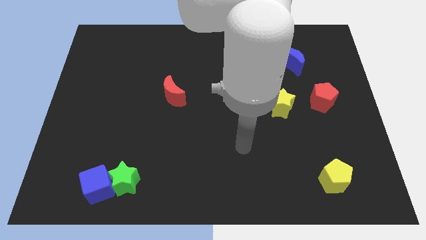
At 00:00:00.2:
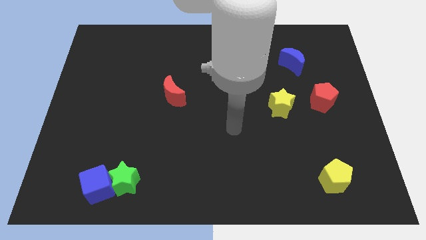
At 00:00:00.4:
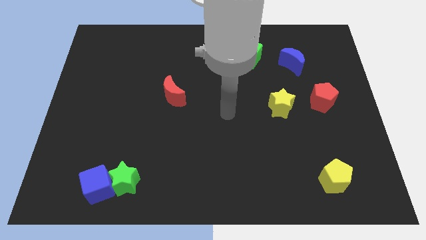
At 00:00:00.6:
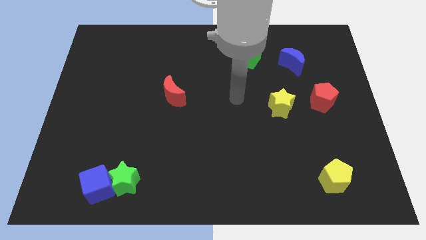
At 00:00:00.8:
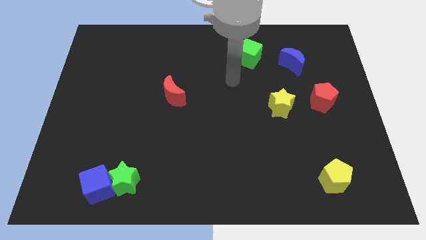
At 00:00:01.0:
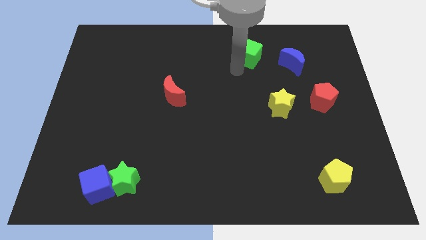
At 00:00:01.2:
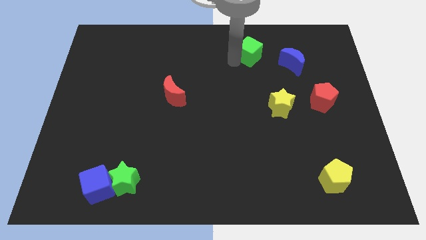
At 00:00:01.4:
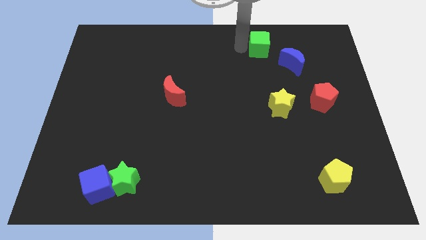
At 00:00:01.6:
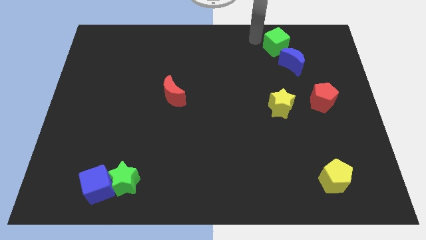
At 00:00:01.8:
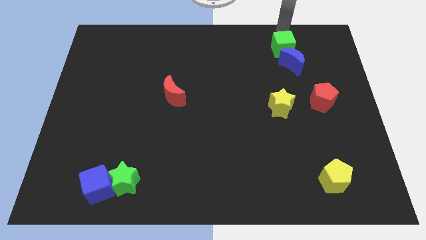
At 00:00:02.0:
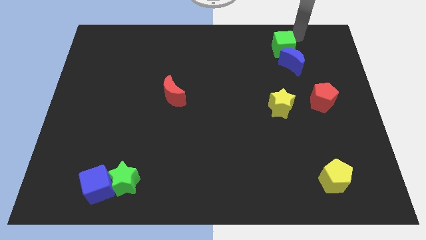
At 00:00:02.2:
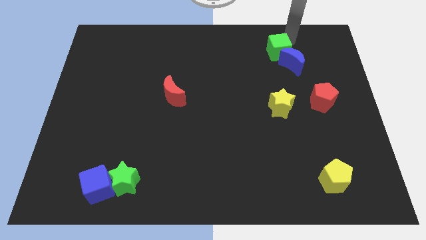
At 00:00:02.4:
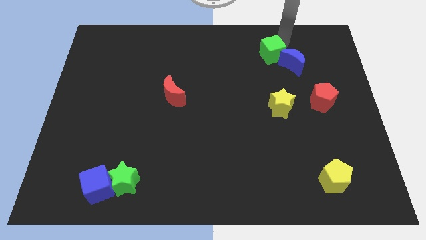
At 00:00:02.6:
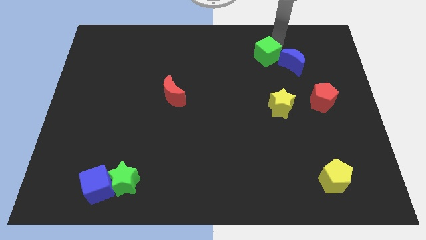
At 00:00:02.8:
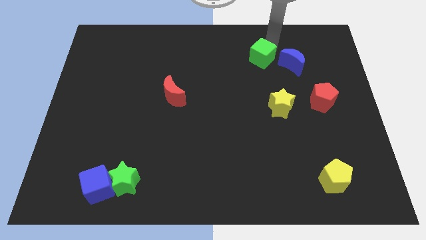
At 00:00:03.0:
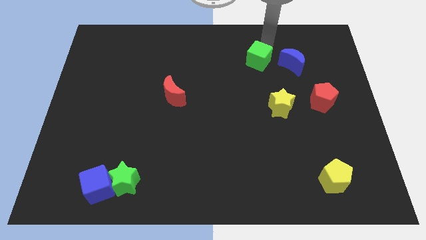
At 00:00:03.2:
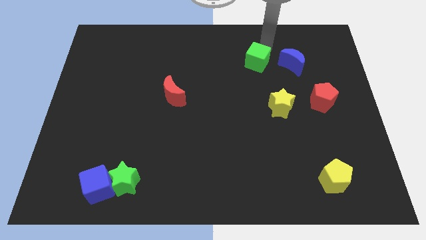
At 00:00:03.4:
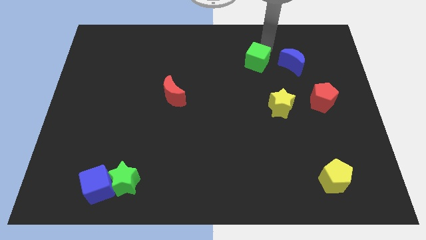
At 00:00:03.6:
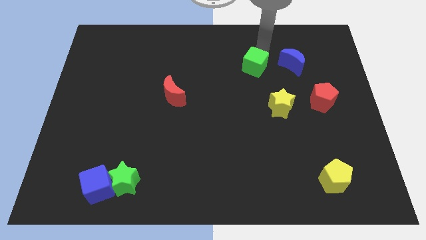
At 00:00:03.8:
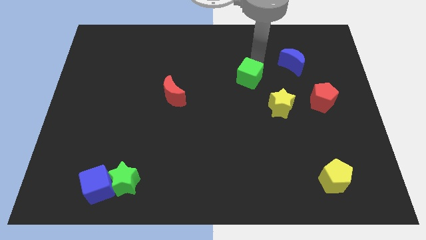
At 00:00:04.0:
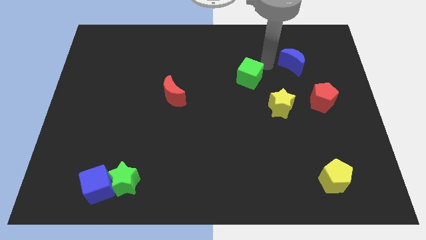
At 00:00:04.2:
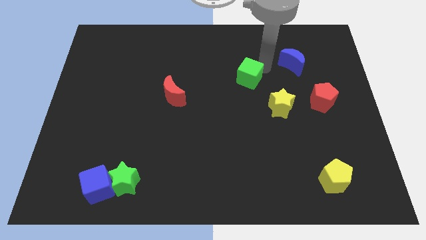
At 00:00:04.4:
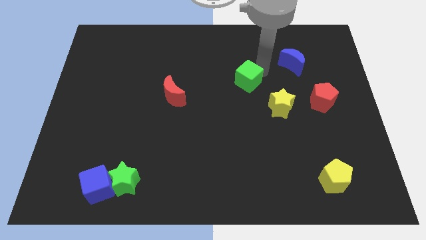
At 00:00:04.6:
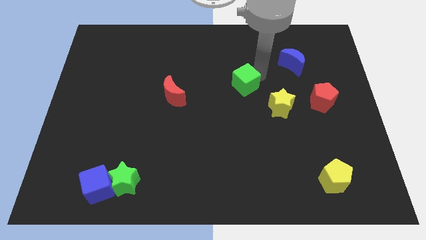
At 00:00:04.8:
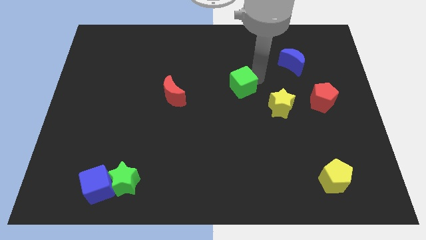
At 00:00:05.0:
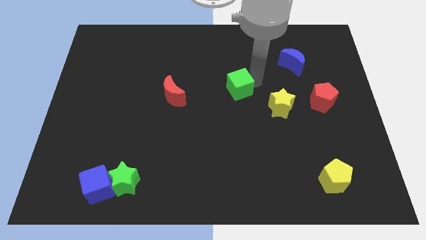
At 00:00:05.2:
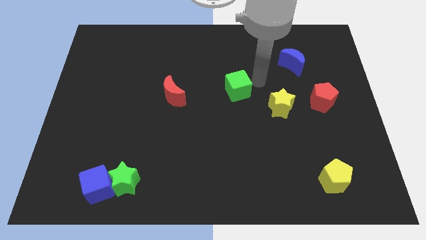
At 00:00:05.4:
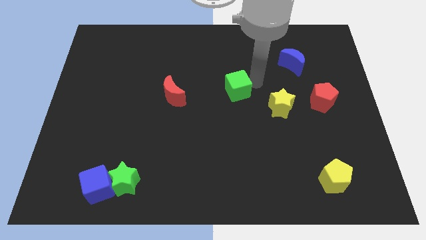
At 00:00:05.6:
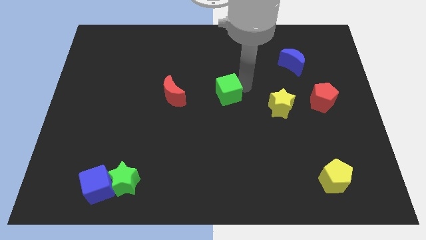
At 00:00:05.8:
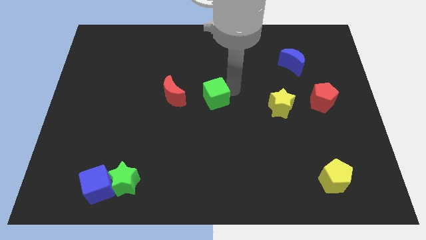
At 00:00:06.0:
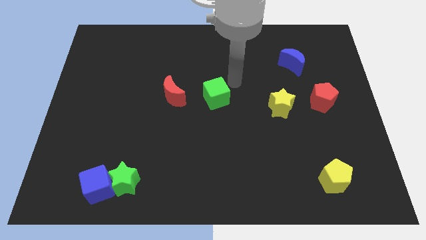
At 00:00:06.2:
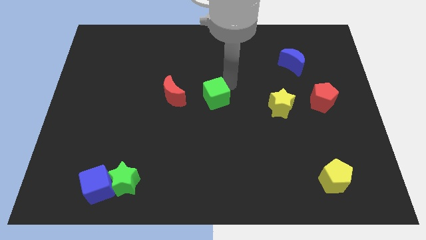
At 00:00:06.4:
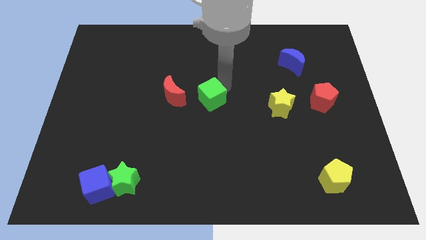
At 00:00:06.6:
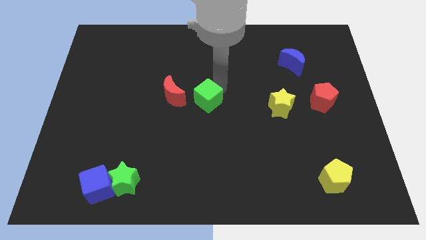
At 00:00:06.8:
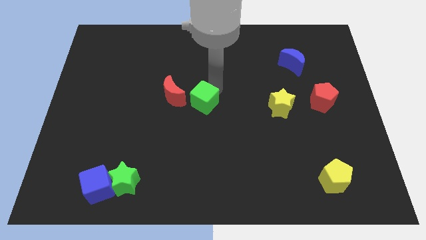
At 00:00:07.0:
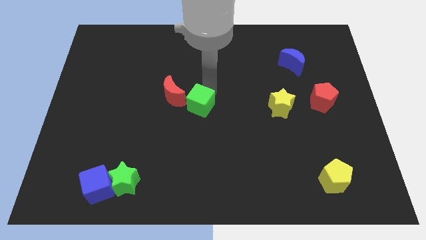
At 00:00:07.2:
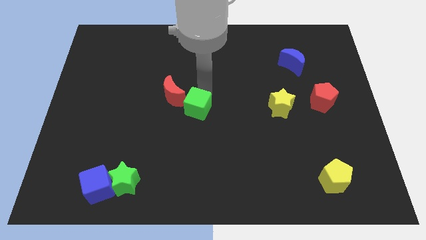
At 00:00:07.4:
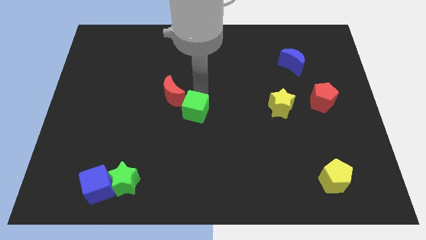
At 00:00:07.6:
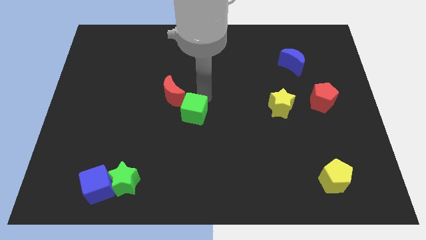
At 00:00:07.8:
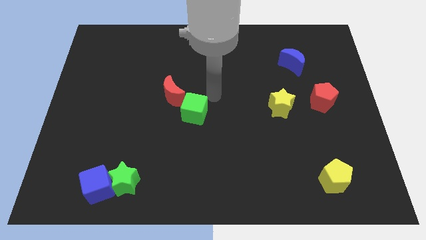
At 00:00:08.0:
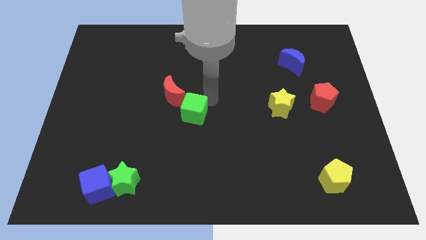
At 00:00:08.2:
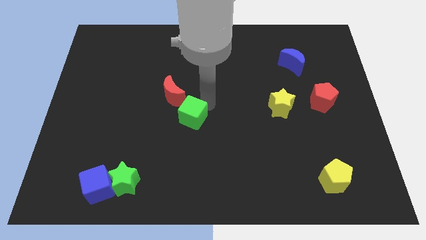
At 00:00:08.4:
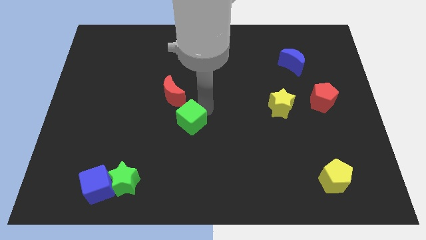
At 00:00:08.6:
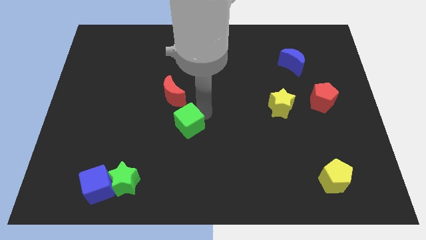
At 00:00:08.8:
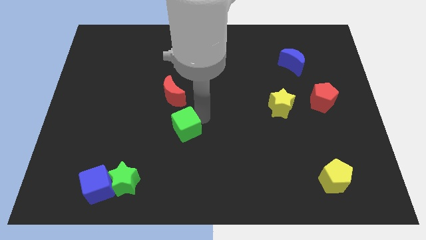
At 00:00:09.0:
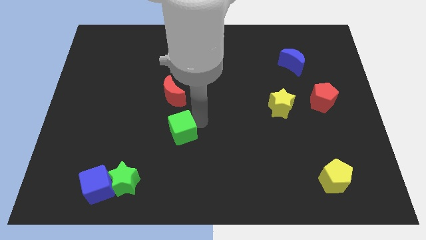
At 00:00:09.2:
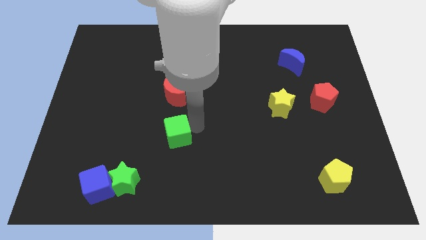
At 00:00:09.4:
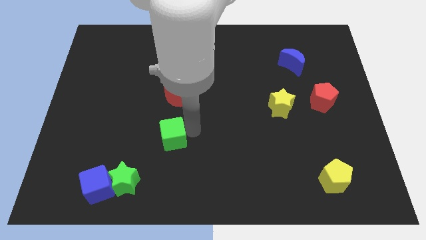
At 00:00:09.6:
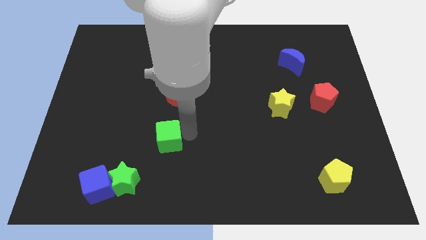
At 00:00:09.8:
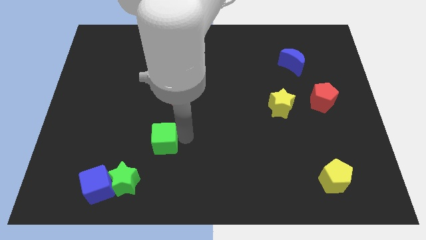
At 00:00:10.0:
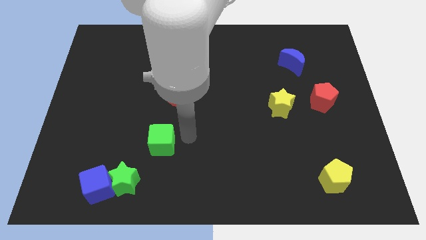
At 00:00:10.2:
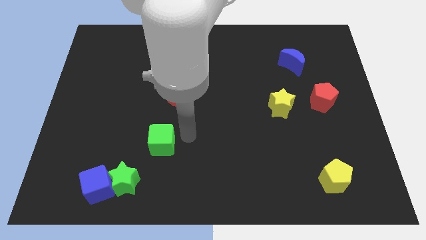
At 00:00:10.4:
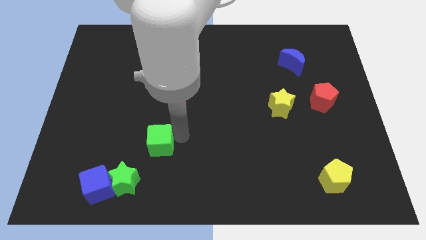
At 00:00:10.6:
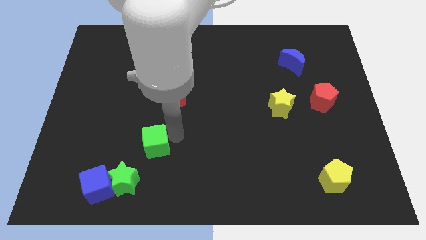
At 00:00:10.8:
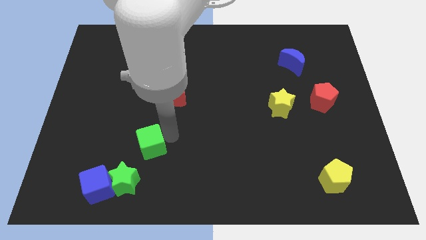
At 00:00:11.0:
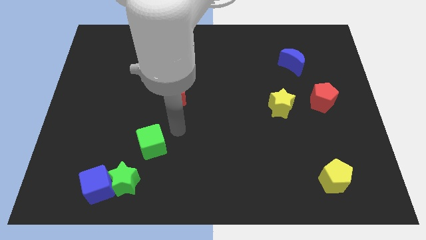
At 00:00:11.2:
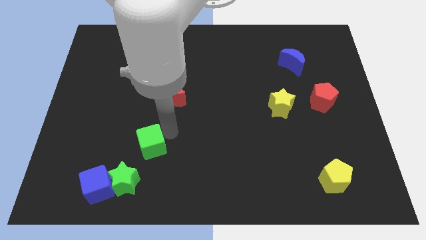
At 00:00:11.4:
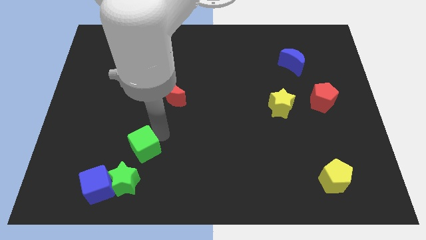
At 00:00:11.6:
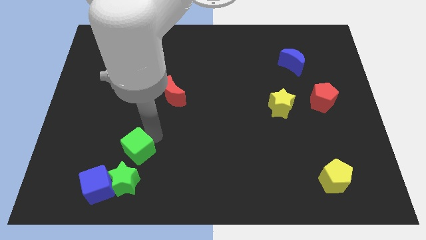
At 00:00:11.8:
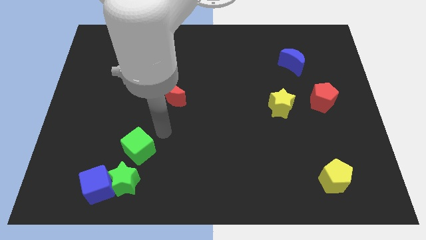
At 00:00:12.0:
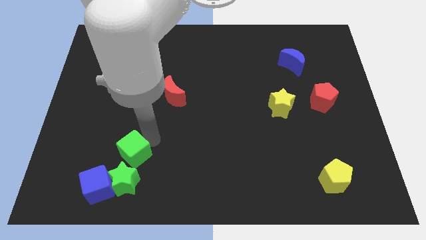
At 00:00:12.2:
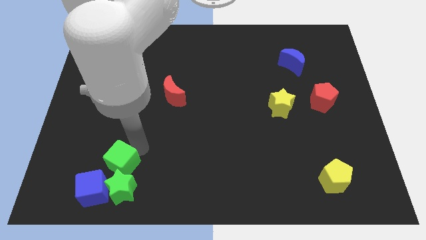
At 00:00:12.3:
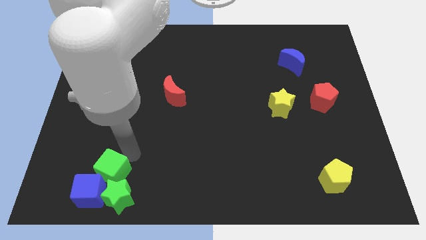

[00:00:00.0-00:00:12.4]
push the green cube close to the blue cube
